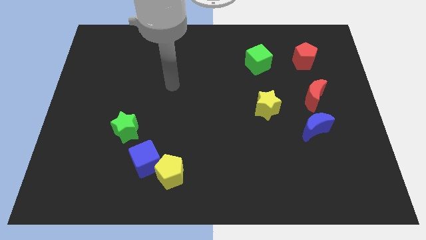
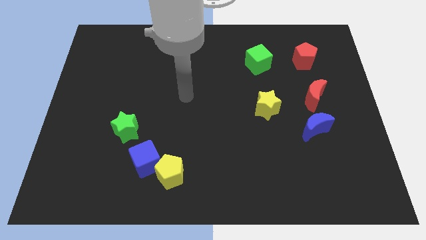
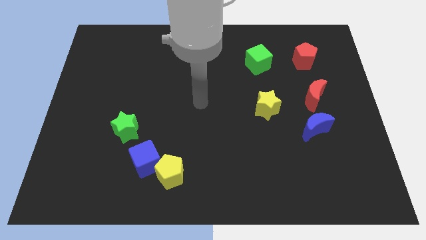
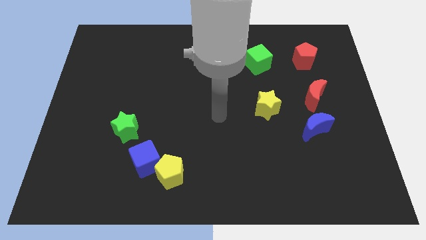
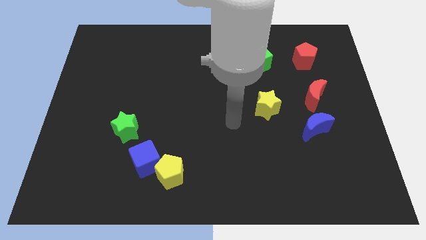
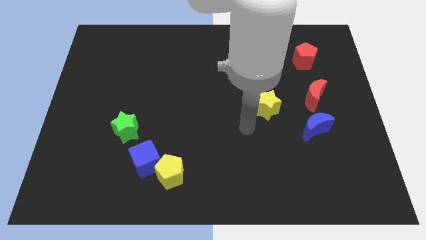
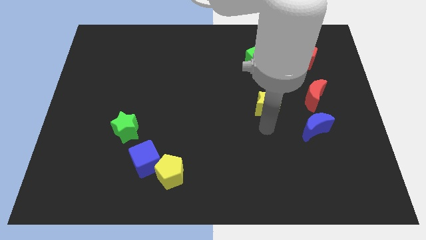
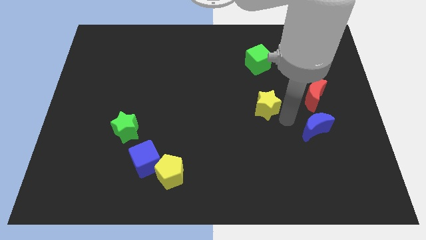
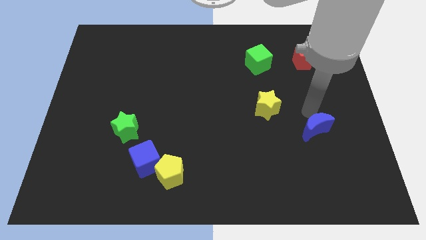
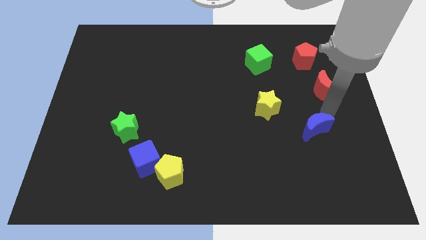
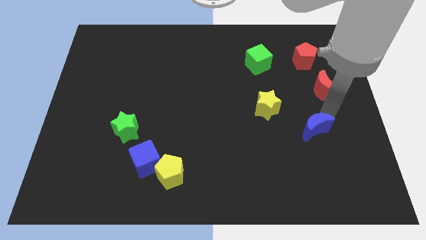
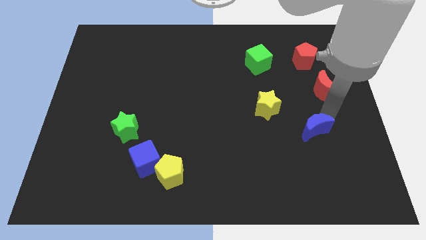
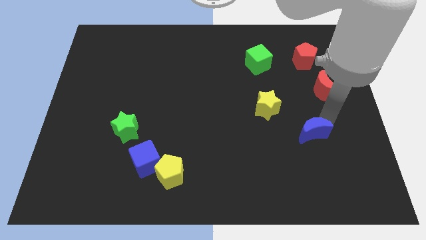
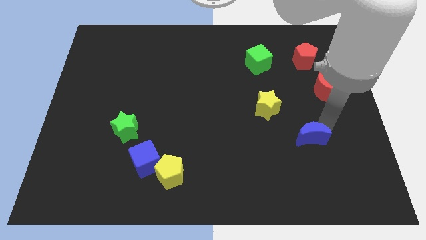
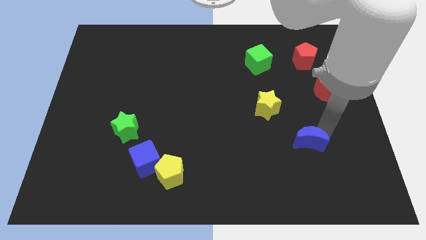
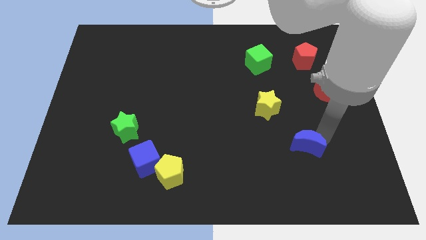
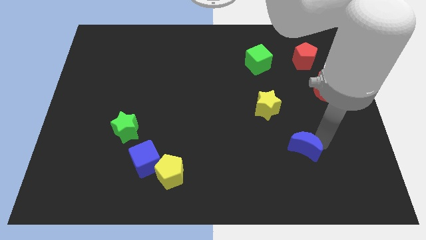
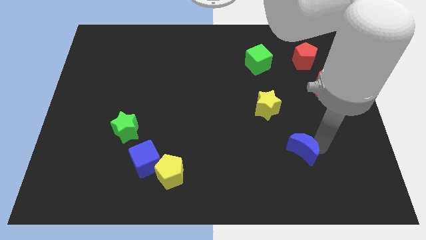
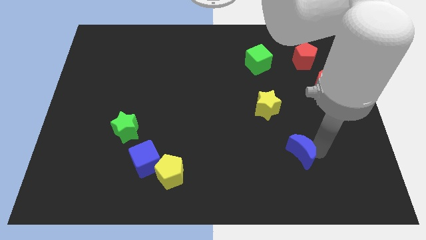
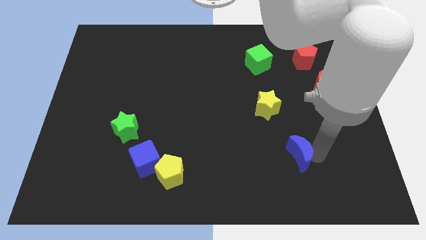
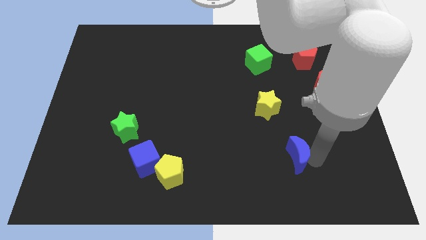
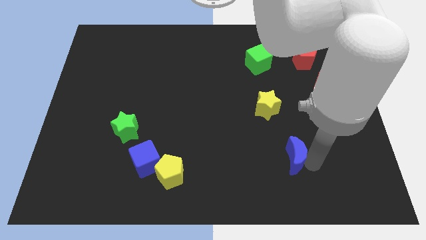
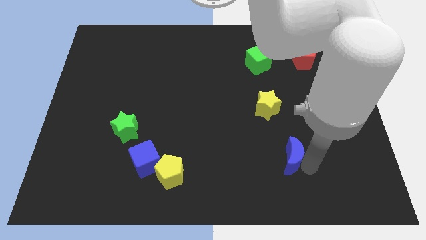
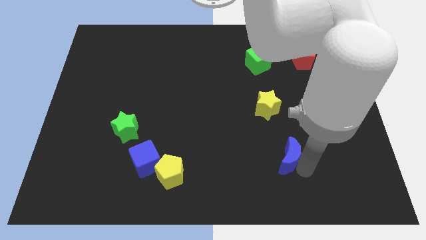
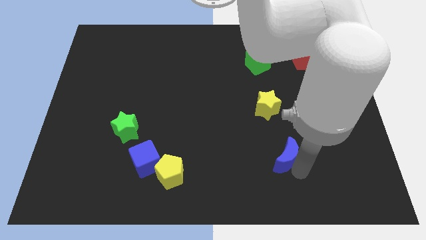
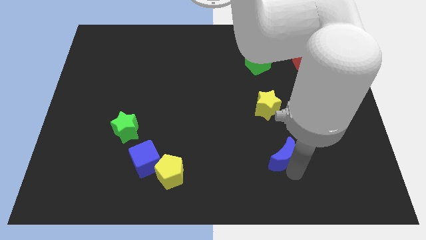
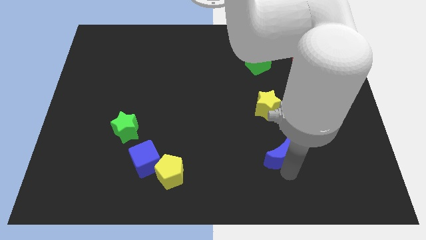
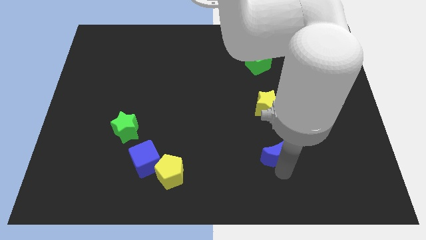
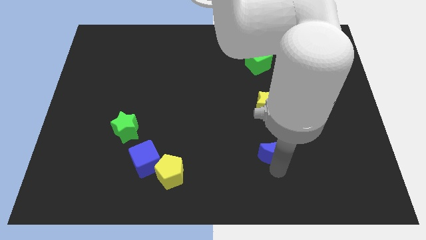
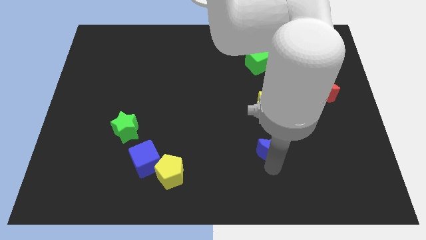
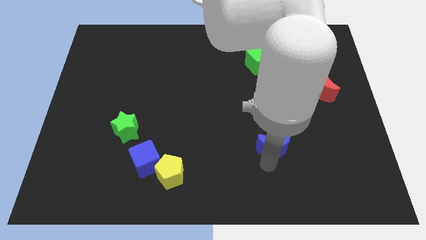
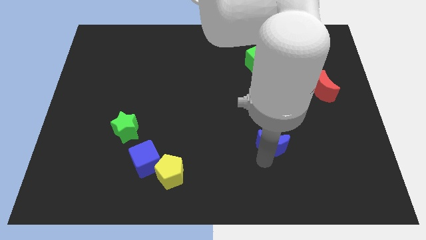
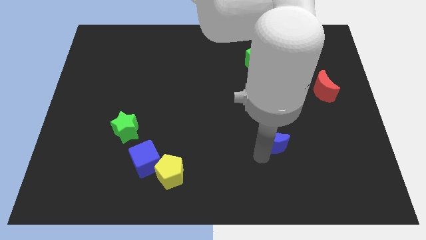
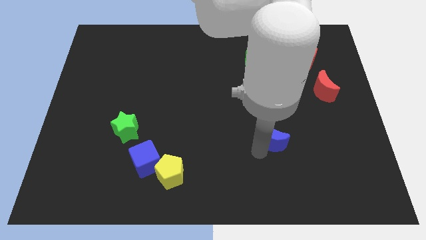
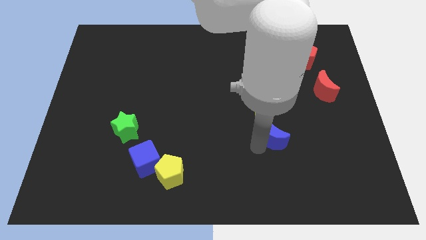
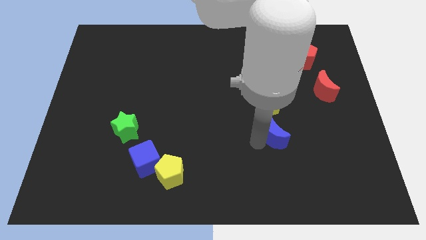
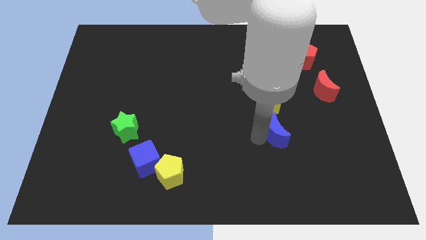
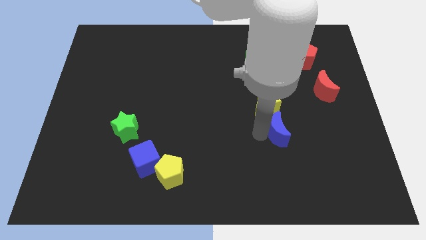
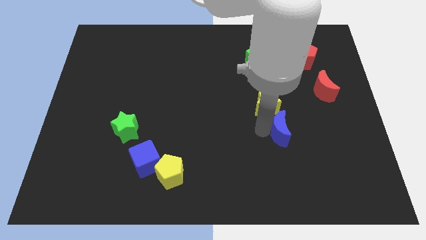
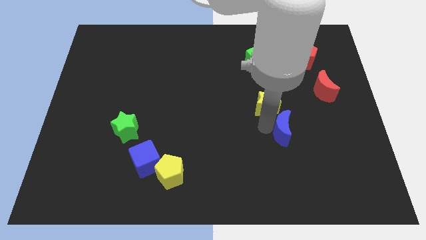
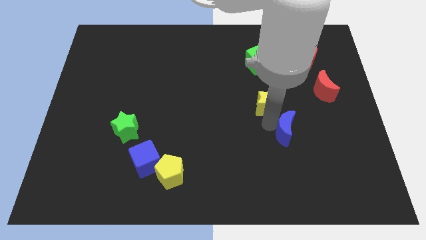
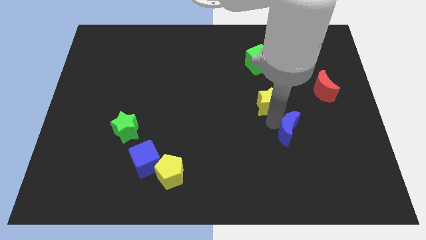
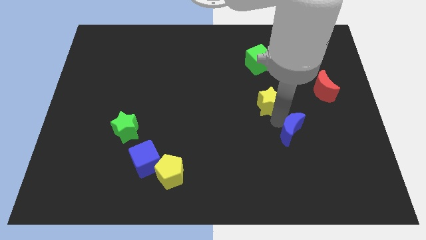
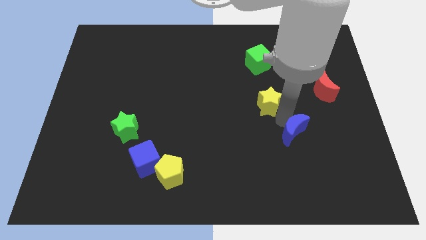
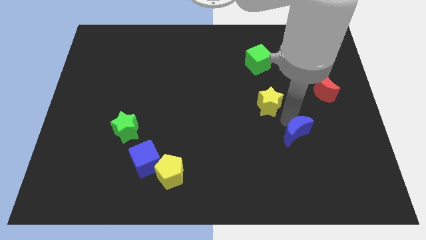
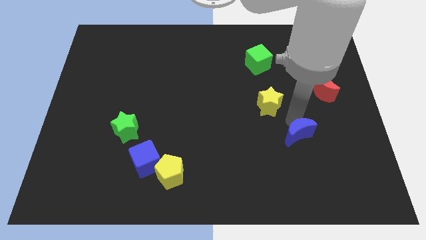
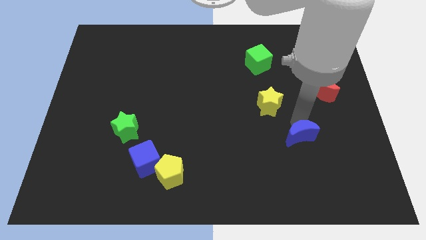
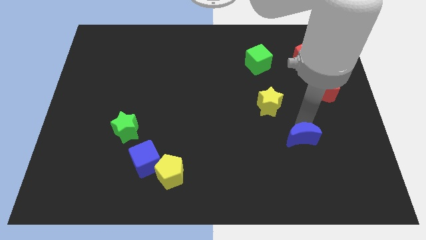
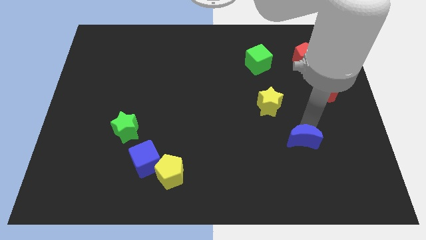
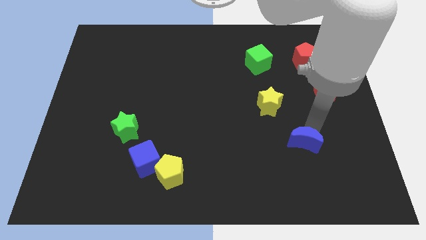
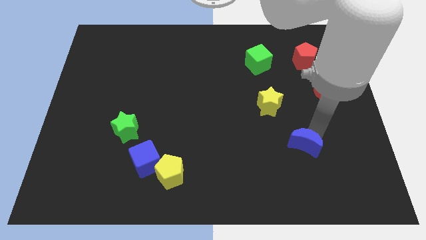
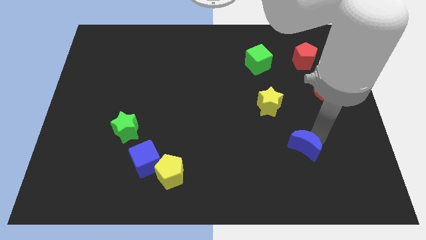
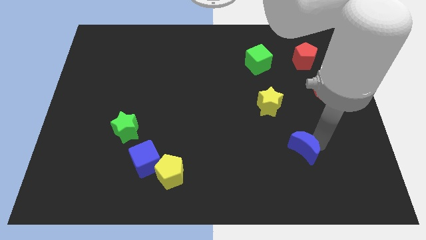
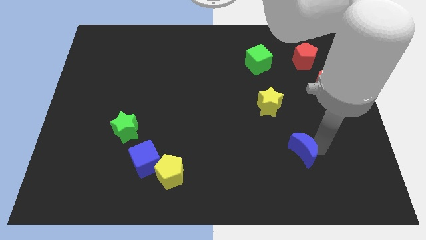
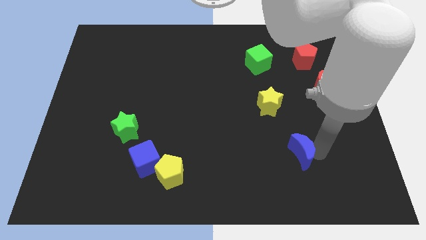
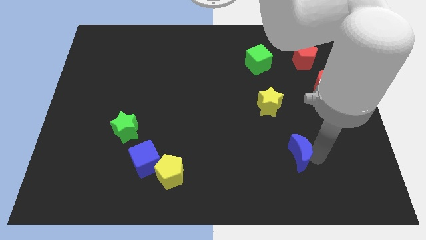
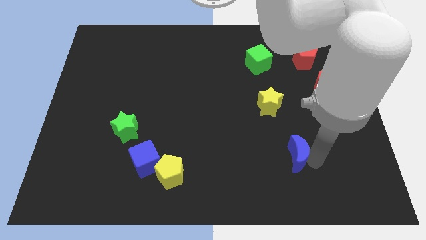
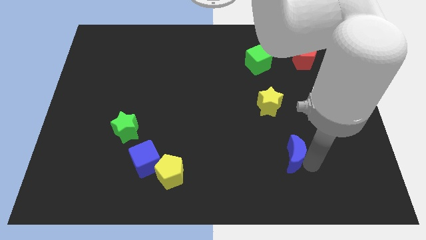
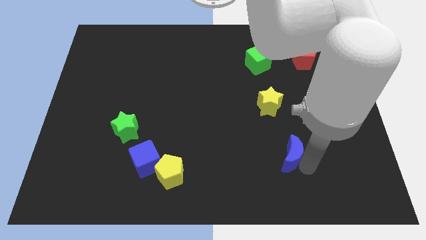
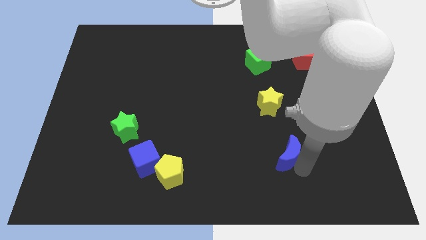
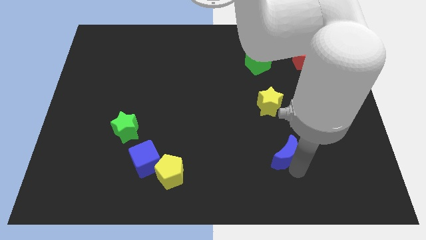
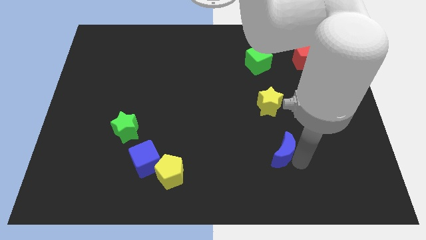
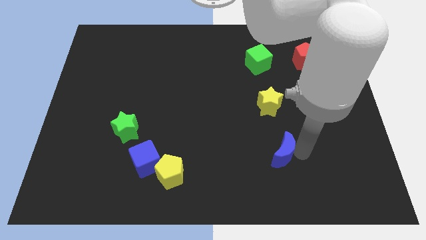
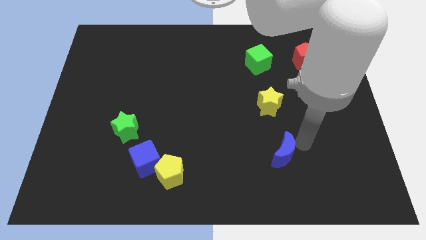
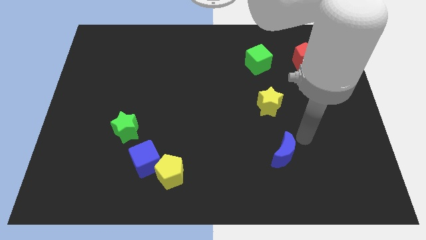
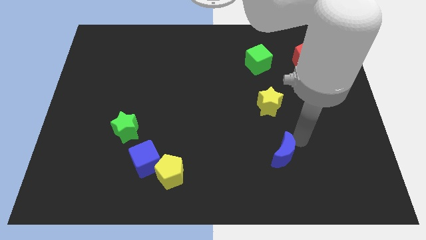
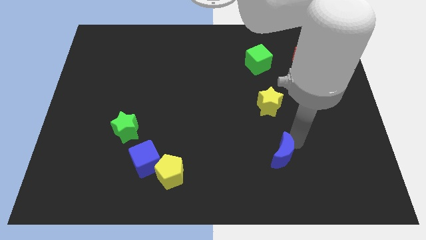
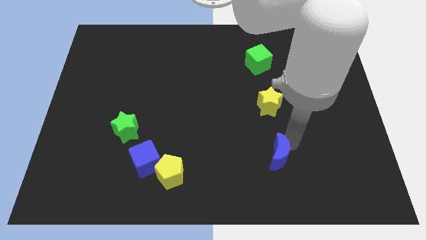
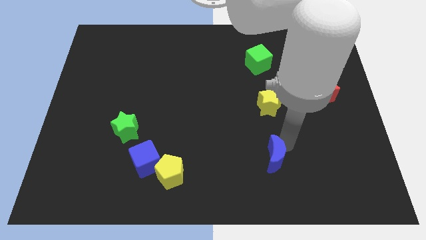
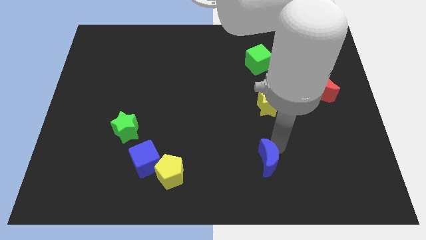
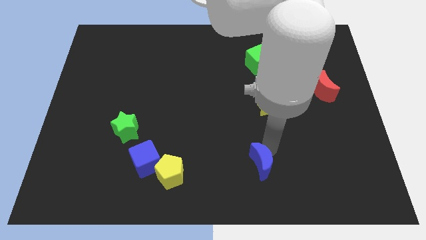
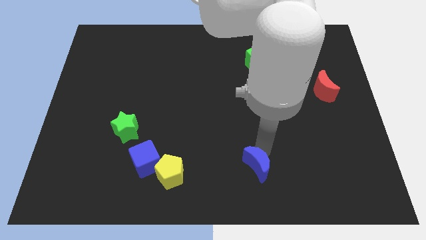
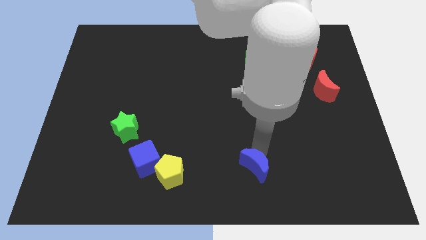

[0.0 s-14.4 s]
move the blue moon to the bottom side

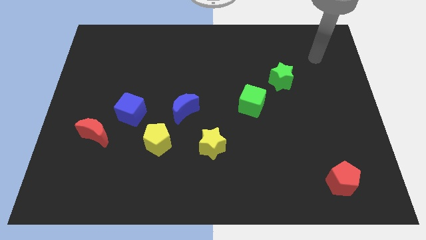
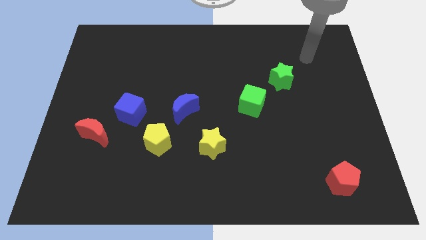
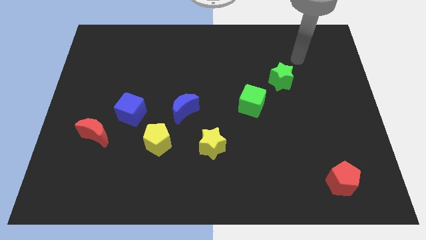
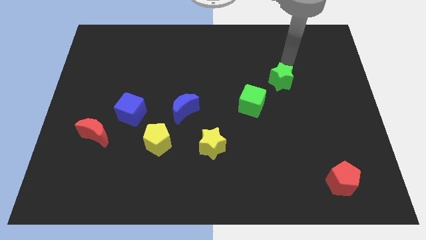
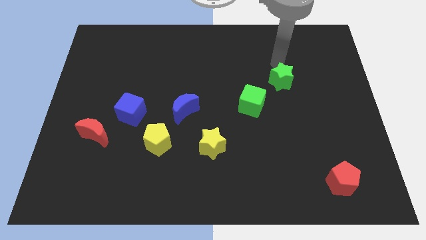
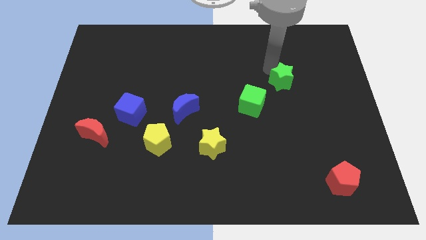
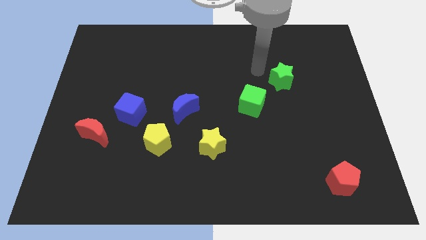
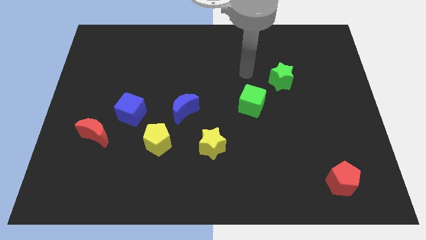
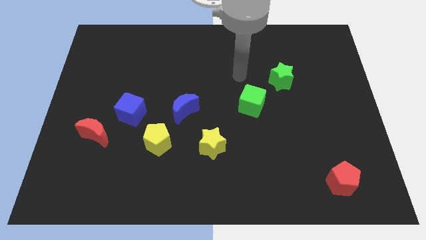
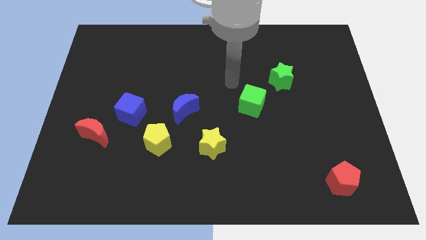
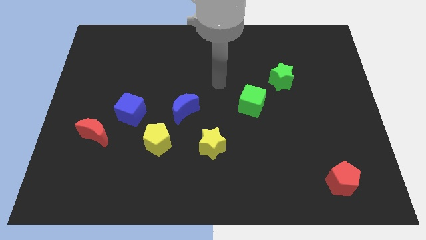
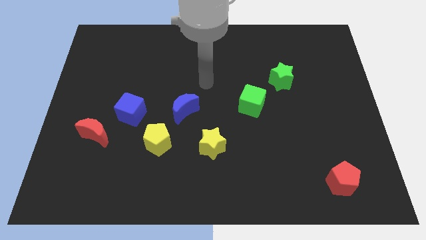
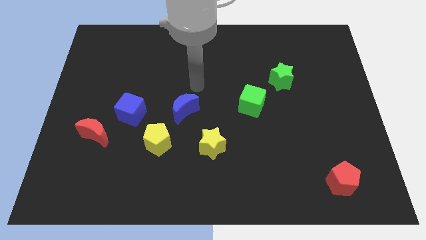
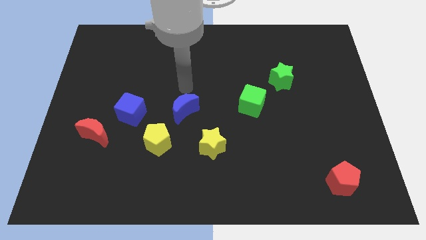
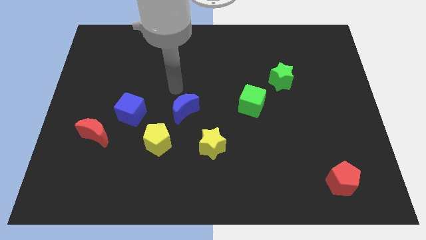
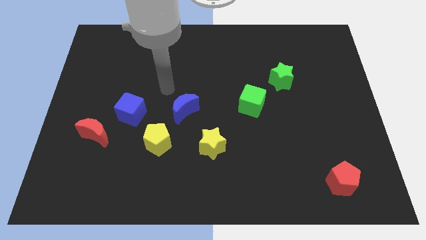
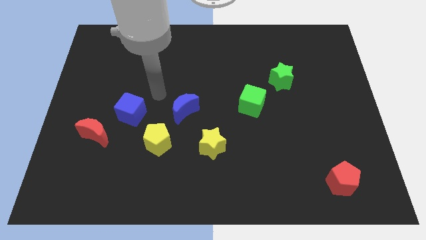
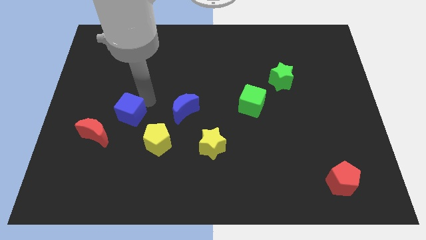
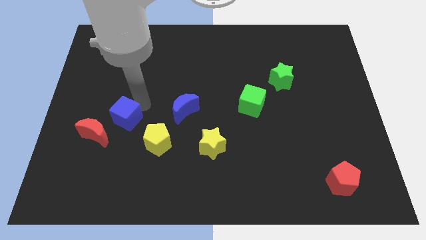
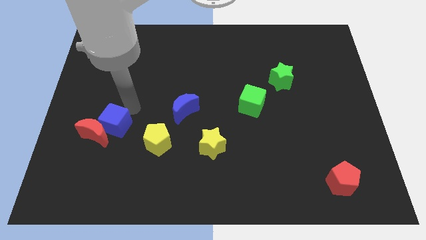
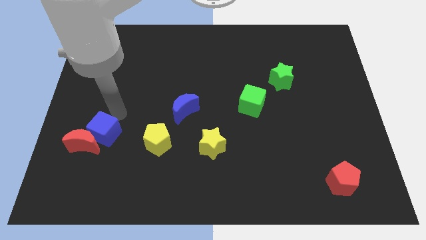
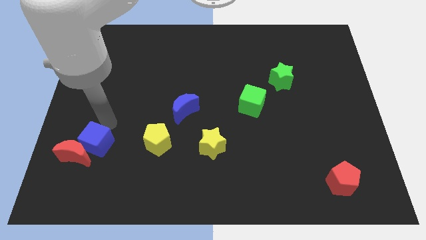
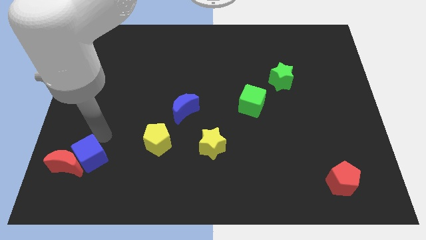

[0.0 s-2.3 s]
slide the red moon to the bottom left corner
